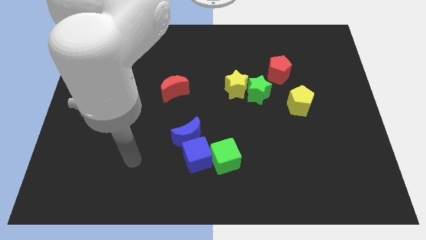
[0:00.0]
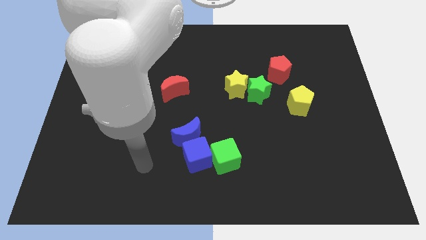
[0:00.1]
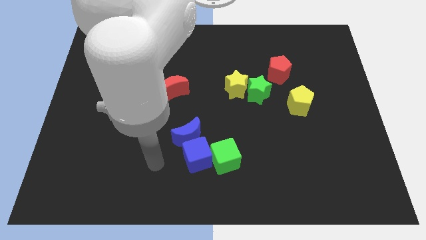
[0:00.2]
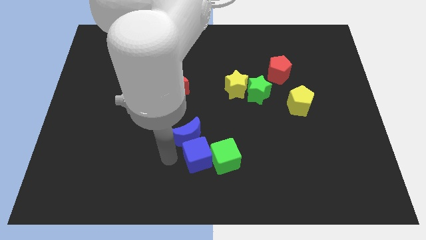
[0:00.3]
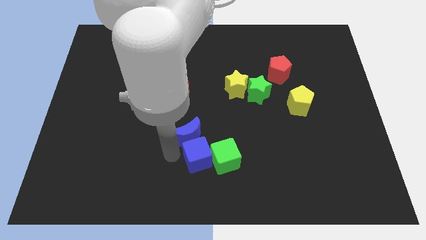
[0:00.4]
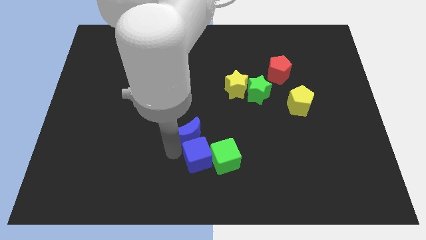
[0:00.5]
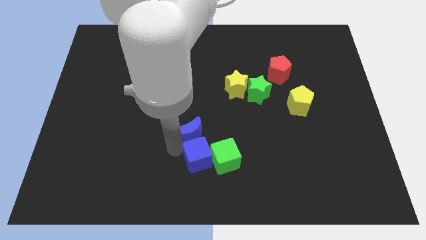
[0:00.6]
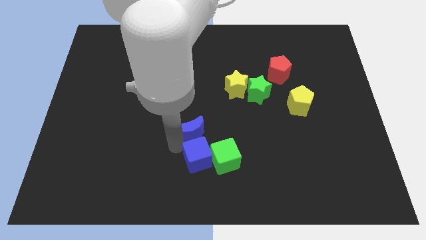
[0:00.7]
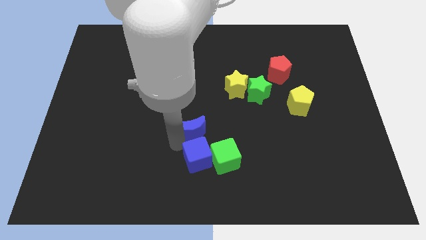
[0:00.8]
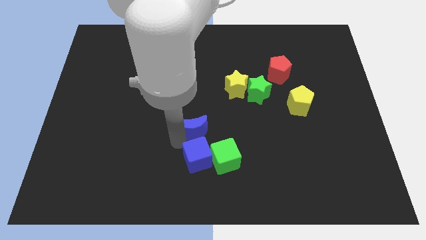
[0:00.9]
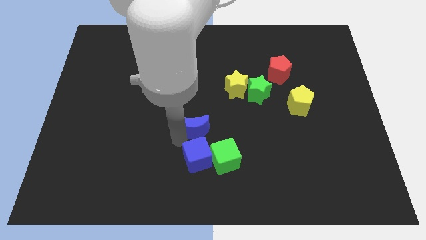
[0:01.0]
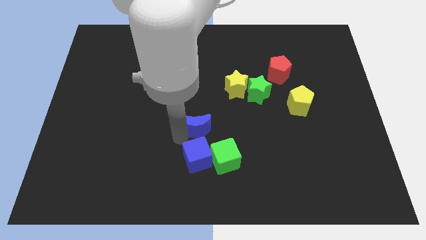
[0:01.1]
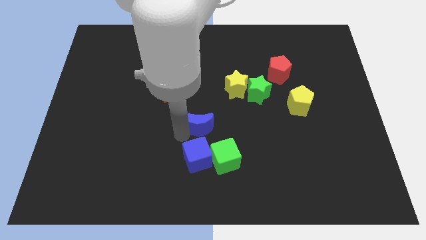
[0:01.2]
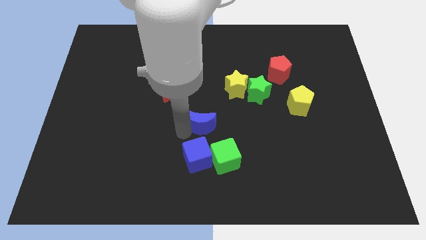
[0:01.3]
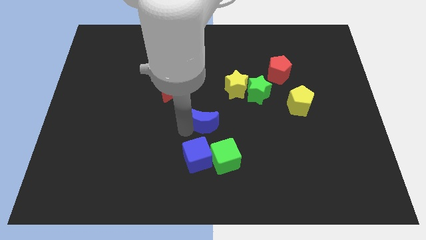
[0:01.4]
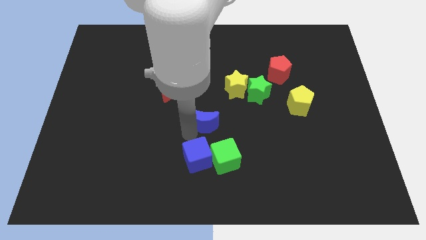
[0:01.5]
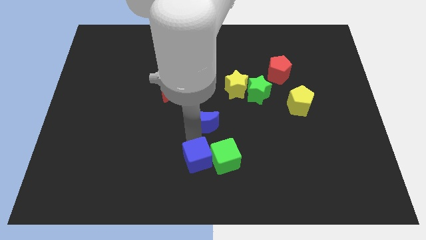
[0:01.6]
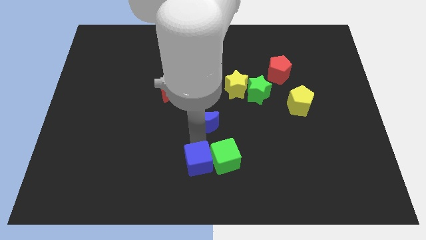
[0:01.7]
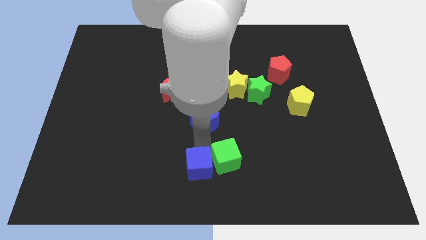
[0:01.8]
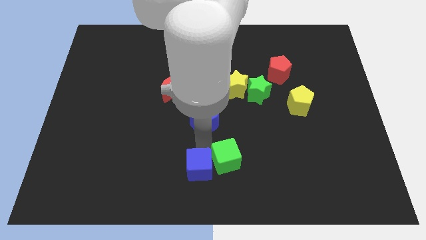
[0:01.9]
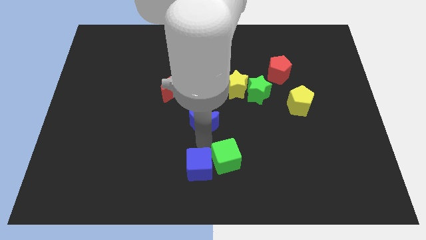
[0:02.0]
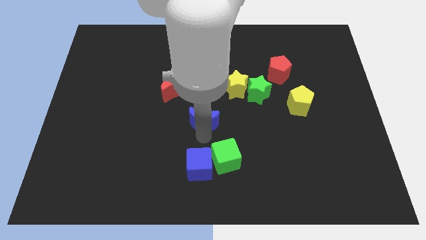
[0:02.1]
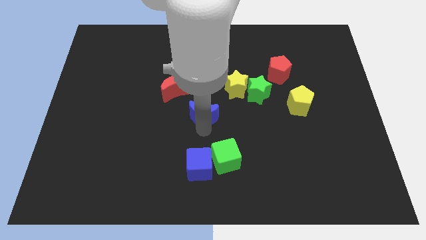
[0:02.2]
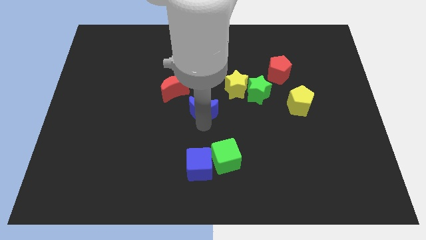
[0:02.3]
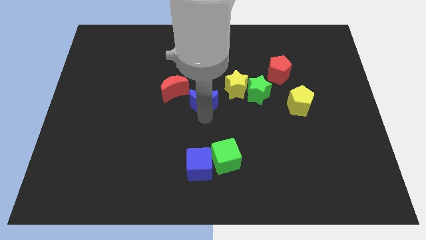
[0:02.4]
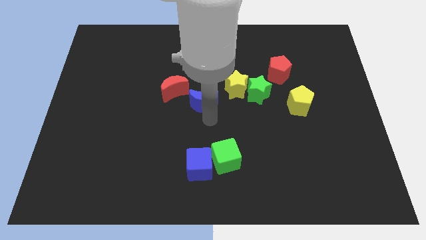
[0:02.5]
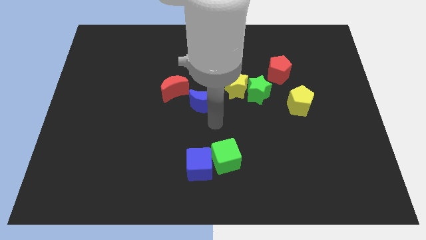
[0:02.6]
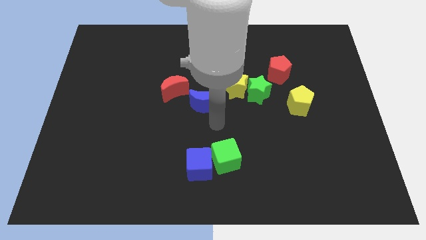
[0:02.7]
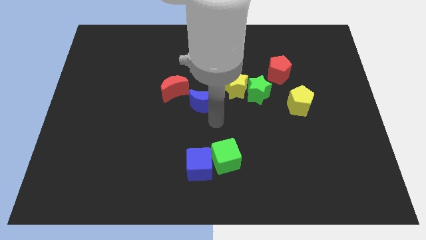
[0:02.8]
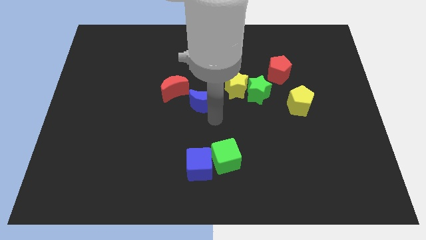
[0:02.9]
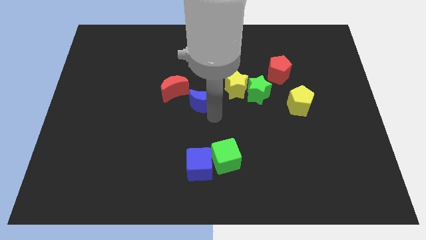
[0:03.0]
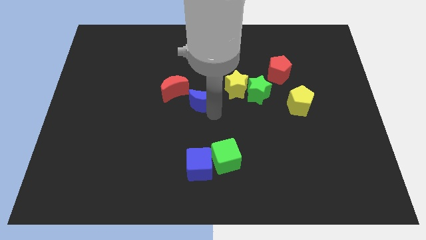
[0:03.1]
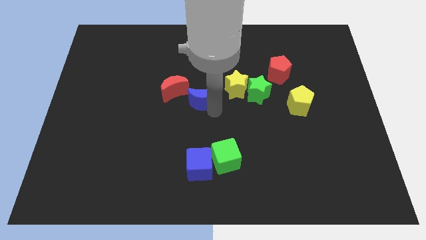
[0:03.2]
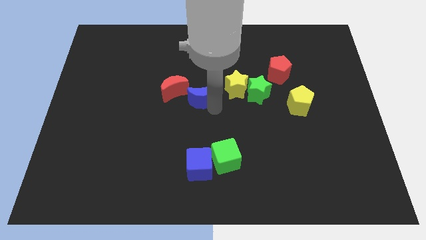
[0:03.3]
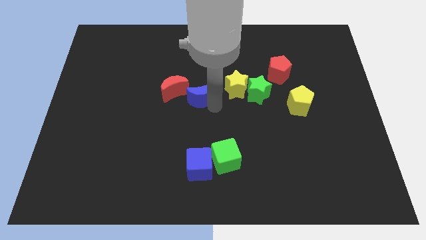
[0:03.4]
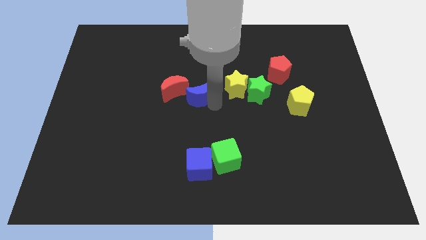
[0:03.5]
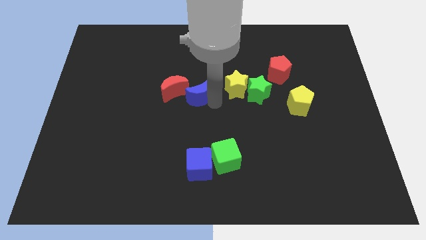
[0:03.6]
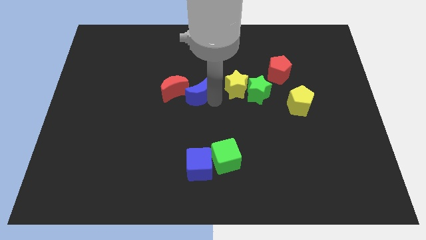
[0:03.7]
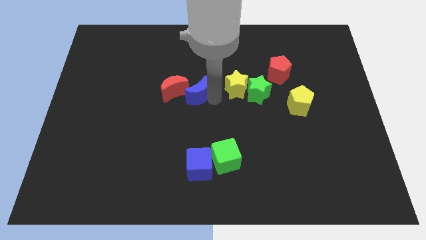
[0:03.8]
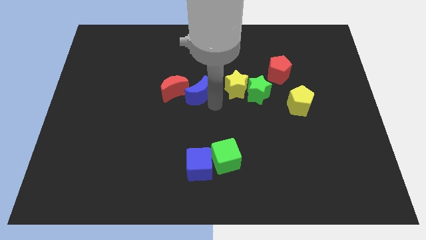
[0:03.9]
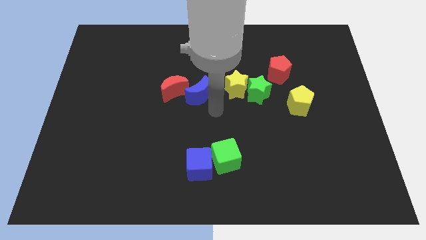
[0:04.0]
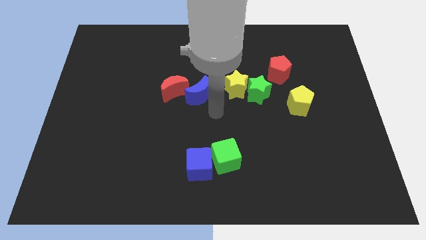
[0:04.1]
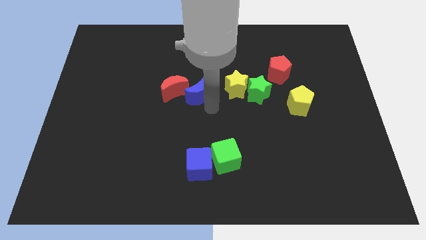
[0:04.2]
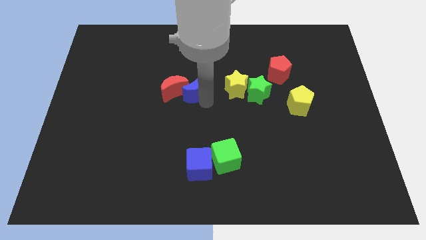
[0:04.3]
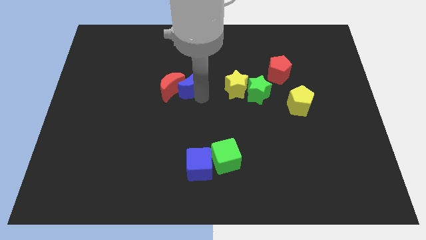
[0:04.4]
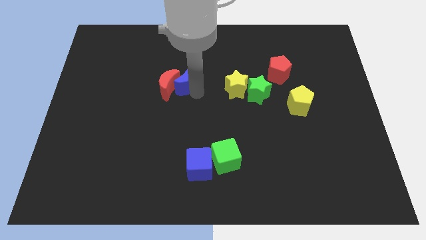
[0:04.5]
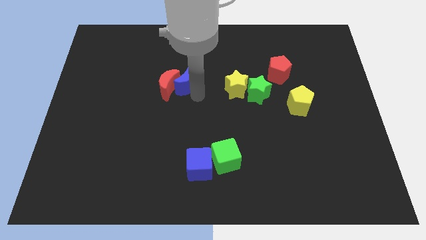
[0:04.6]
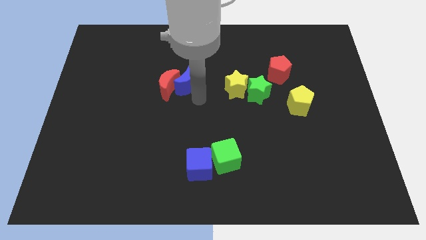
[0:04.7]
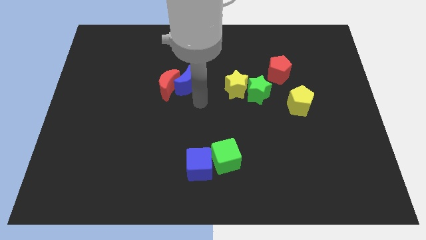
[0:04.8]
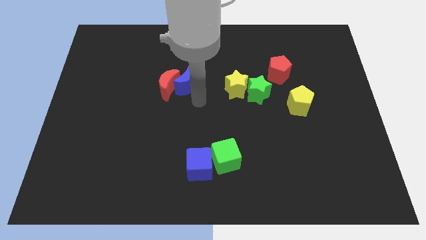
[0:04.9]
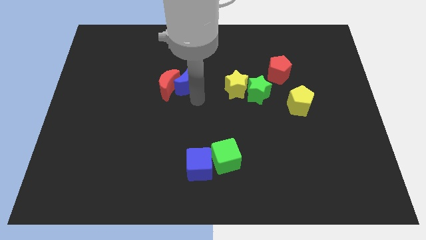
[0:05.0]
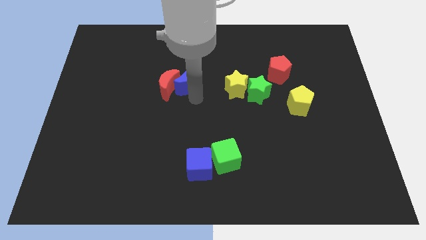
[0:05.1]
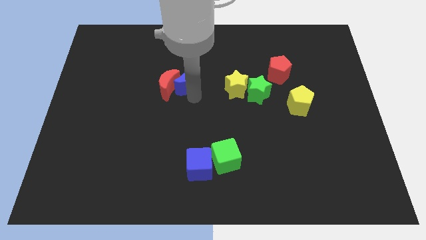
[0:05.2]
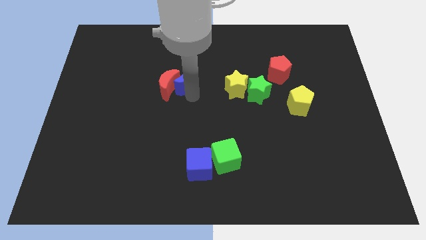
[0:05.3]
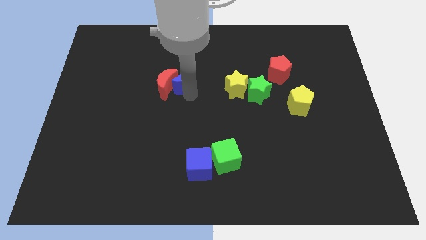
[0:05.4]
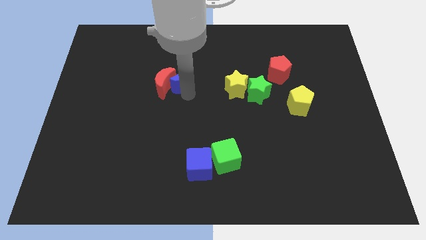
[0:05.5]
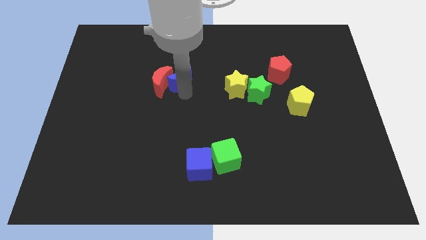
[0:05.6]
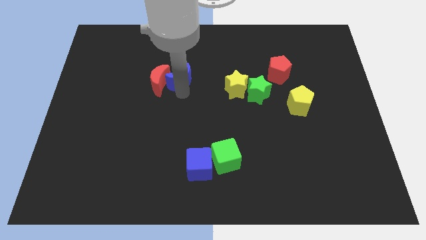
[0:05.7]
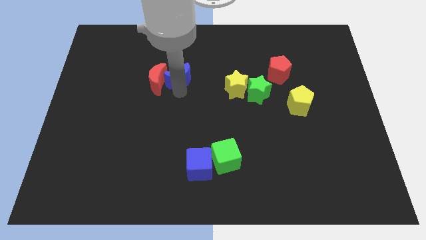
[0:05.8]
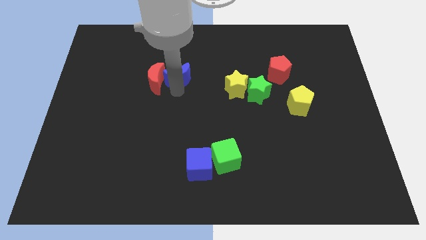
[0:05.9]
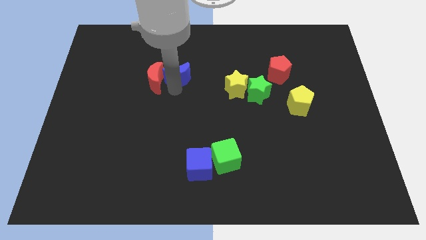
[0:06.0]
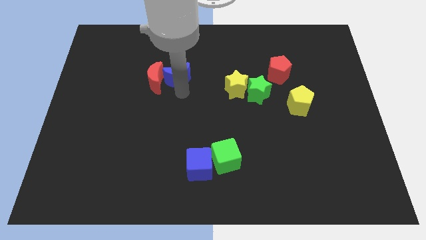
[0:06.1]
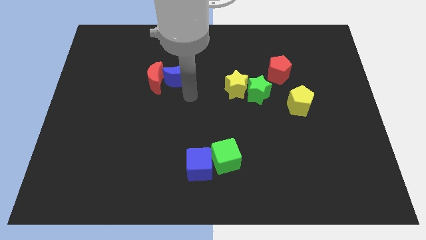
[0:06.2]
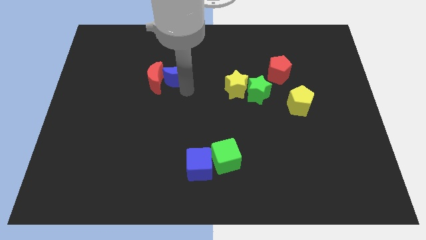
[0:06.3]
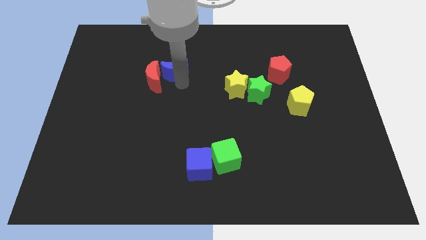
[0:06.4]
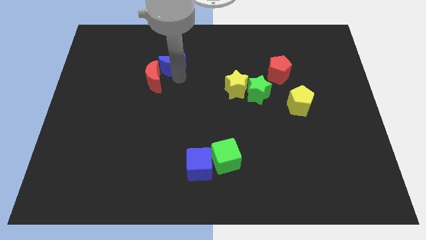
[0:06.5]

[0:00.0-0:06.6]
move the blue moon above the red moon
